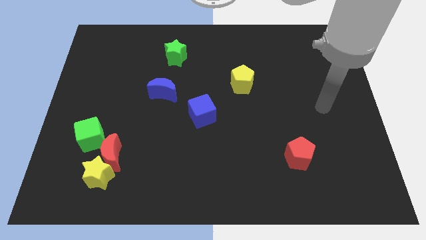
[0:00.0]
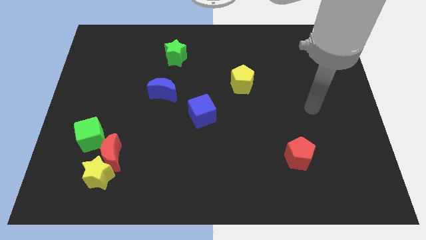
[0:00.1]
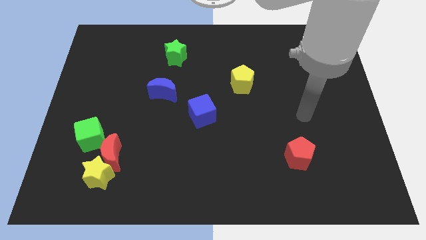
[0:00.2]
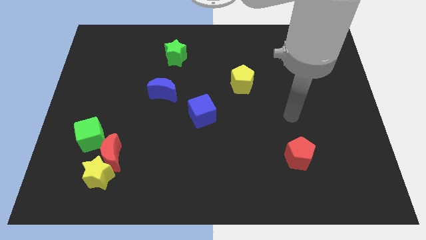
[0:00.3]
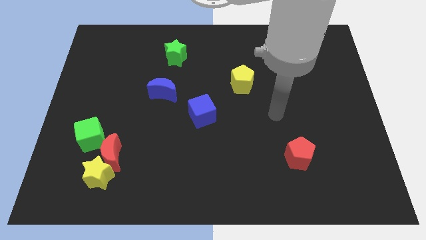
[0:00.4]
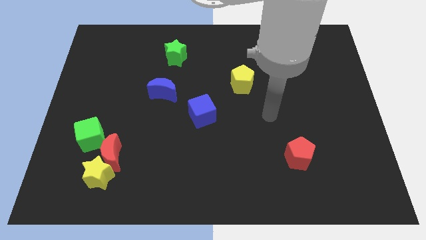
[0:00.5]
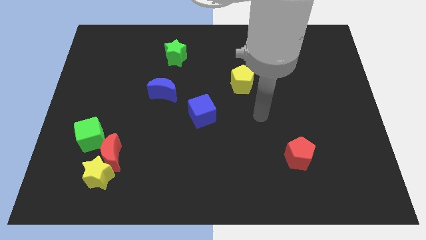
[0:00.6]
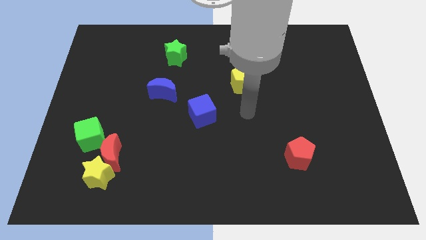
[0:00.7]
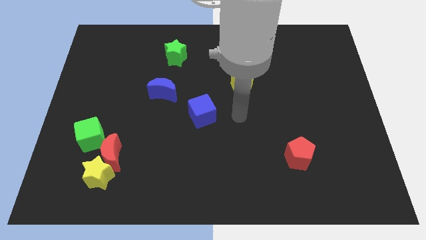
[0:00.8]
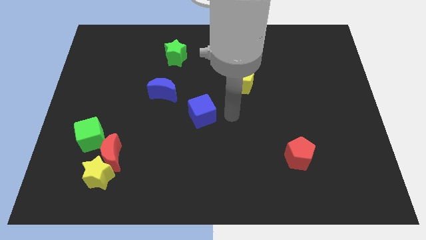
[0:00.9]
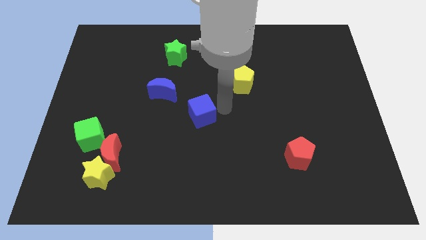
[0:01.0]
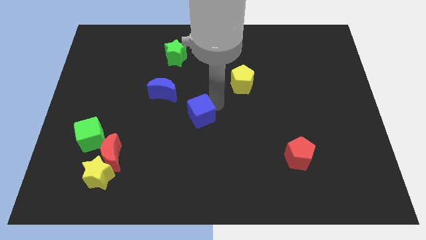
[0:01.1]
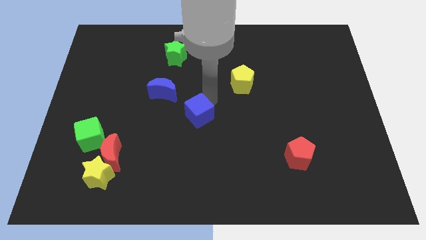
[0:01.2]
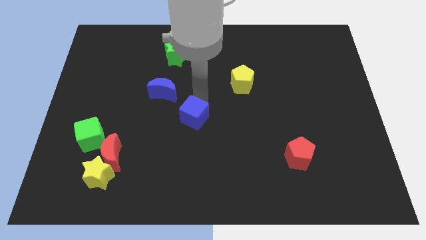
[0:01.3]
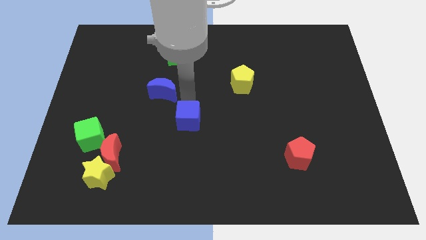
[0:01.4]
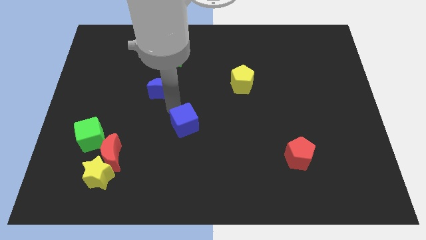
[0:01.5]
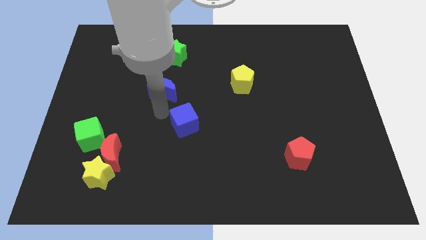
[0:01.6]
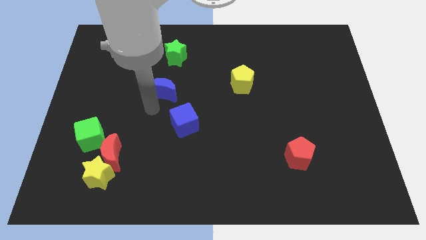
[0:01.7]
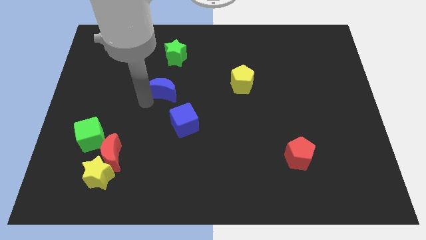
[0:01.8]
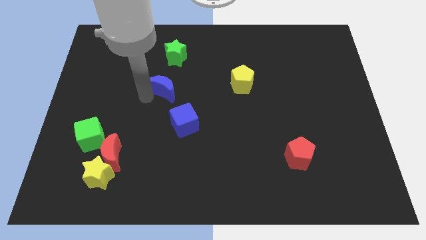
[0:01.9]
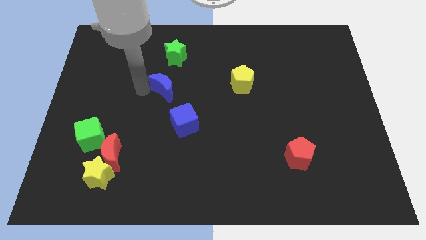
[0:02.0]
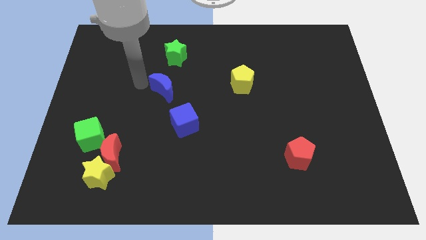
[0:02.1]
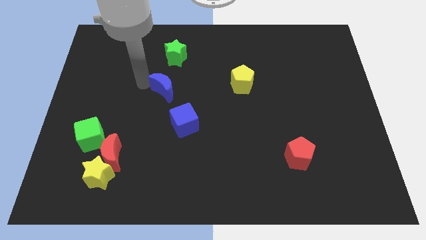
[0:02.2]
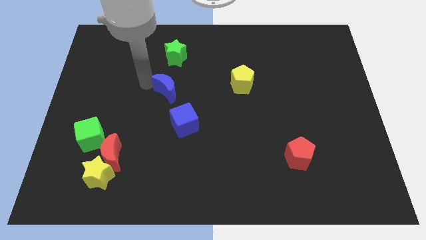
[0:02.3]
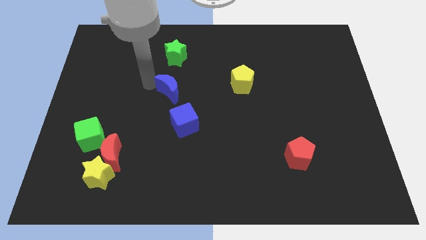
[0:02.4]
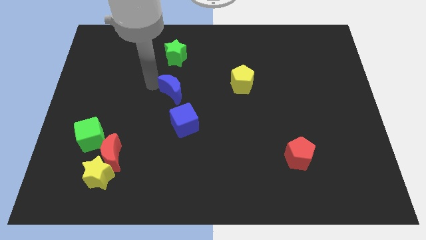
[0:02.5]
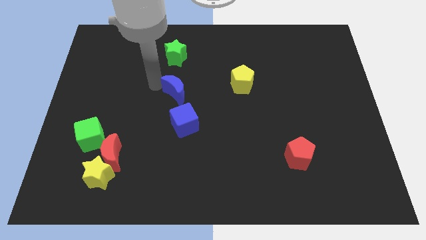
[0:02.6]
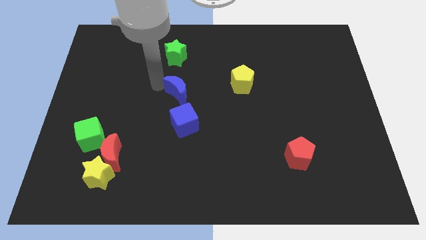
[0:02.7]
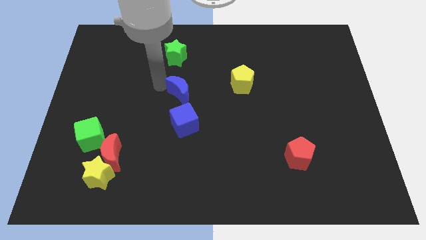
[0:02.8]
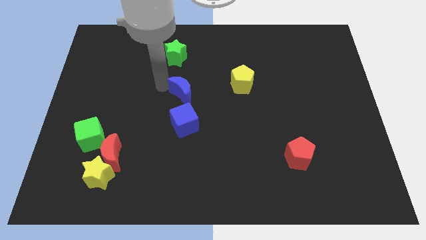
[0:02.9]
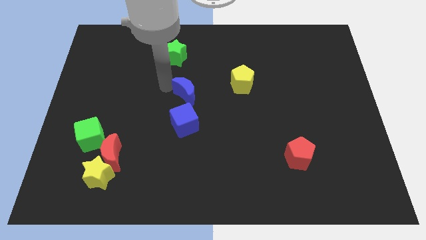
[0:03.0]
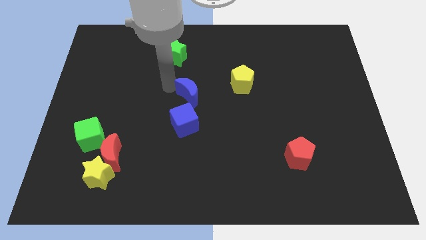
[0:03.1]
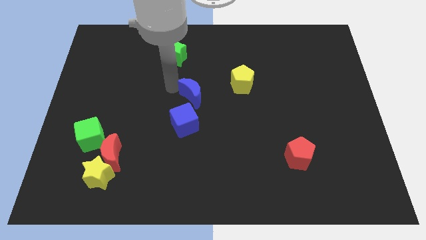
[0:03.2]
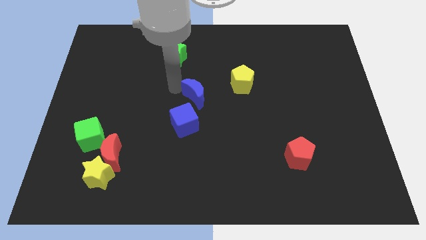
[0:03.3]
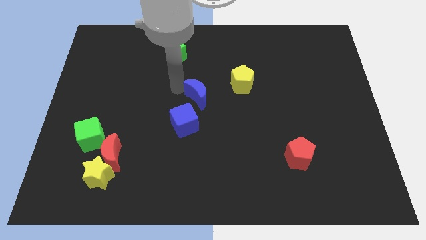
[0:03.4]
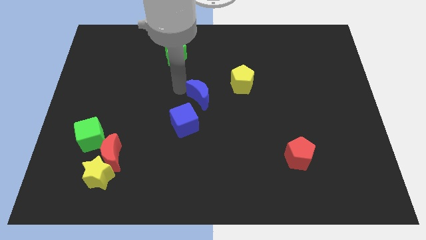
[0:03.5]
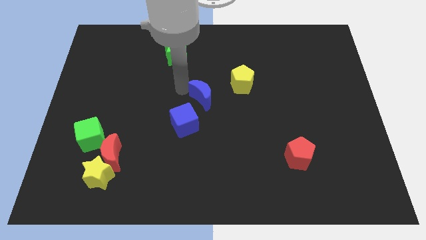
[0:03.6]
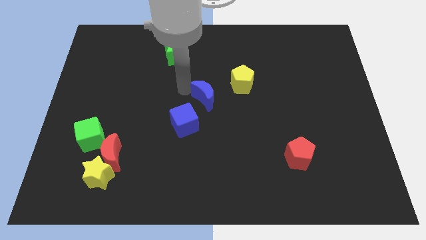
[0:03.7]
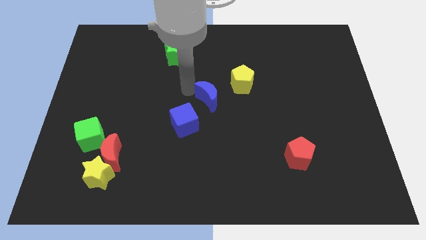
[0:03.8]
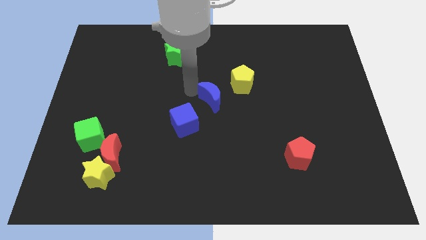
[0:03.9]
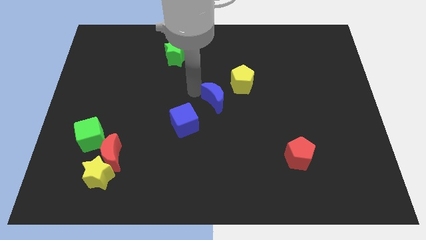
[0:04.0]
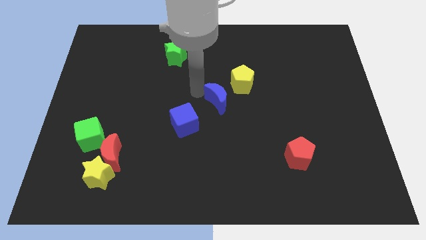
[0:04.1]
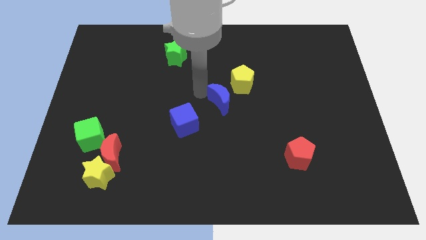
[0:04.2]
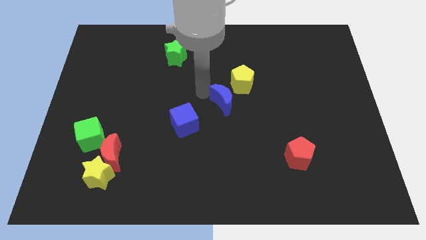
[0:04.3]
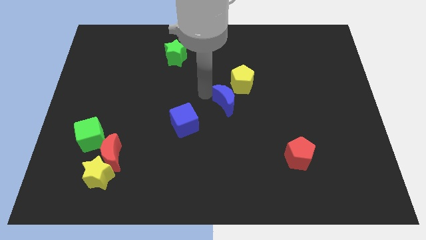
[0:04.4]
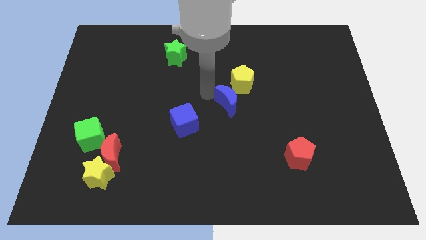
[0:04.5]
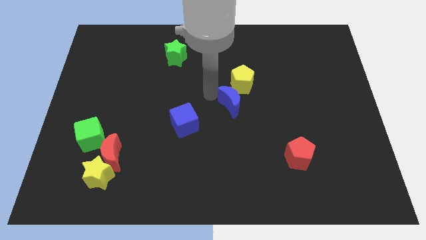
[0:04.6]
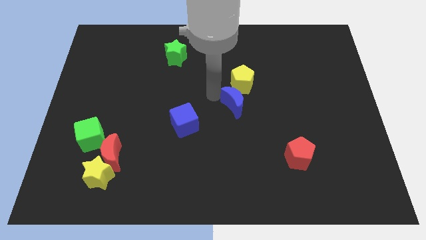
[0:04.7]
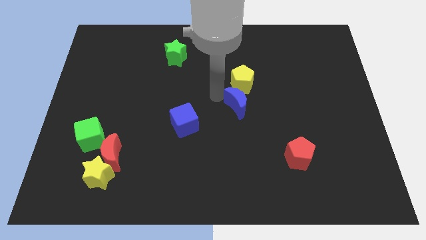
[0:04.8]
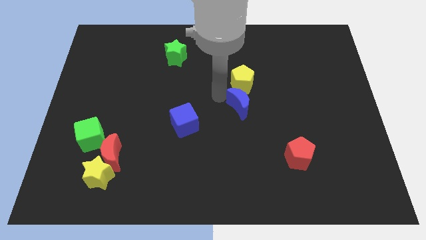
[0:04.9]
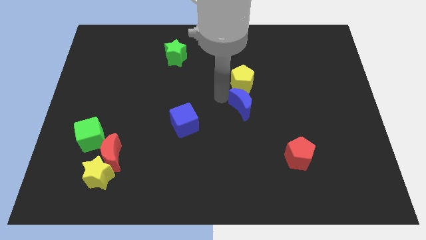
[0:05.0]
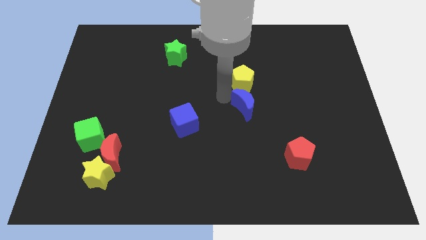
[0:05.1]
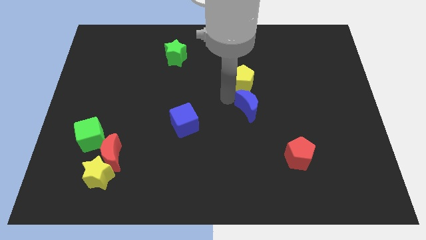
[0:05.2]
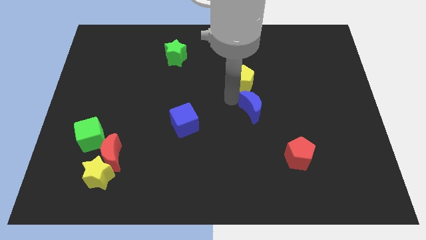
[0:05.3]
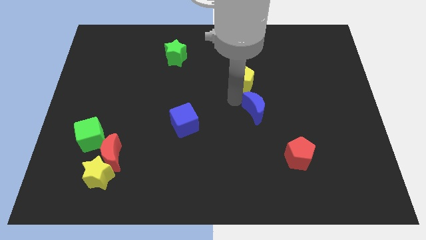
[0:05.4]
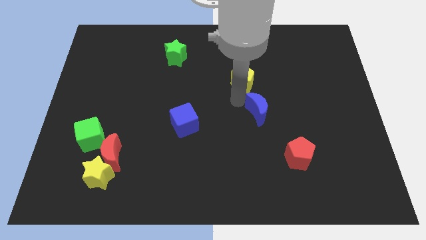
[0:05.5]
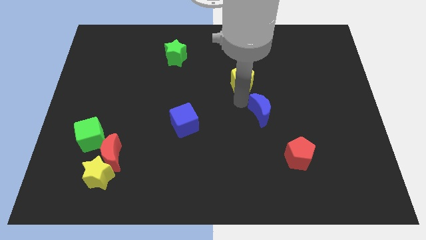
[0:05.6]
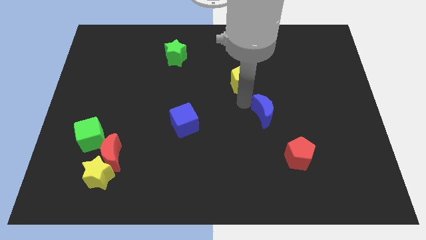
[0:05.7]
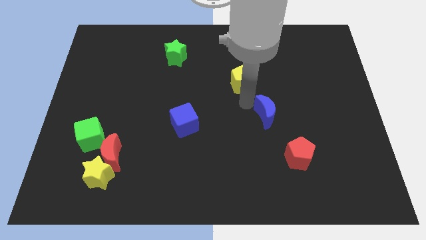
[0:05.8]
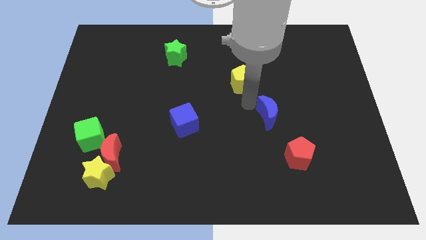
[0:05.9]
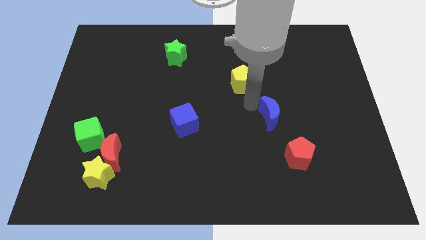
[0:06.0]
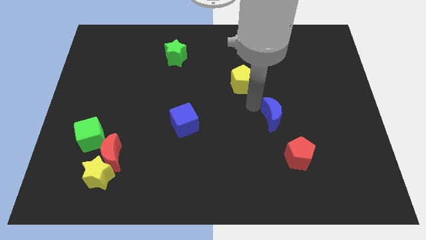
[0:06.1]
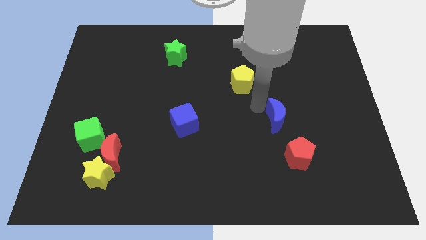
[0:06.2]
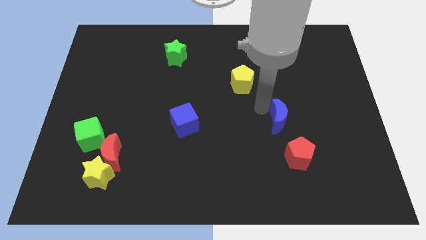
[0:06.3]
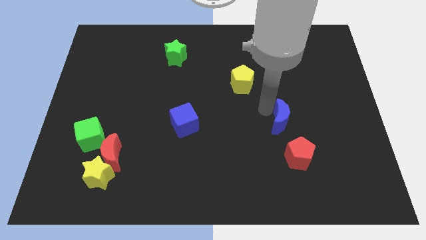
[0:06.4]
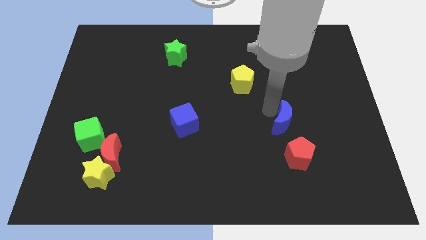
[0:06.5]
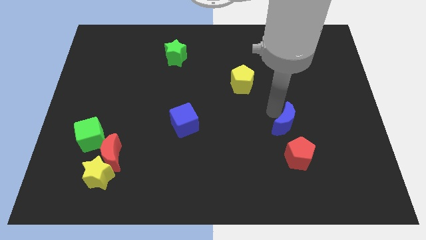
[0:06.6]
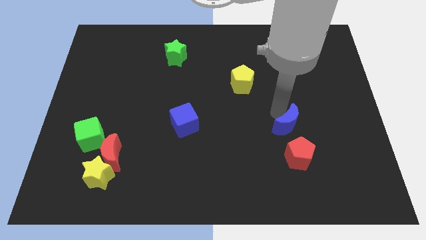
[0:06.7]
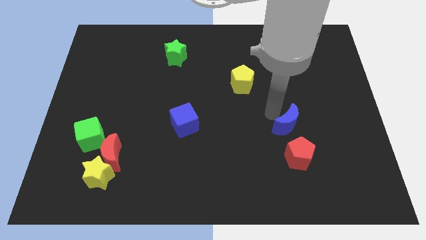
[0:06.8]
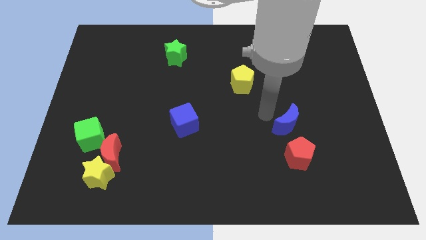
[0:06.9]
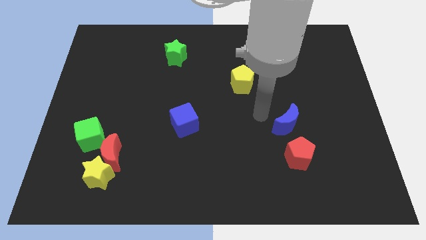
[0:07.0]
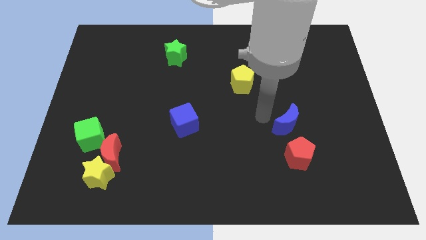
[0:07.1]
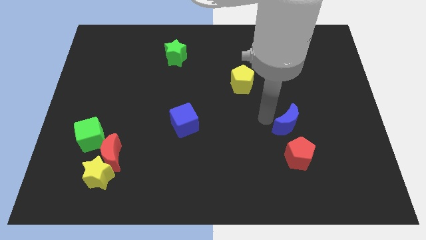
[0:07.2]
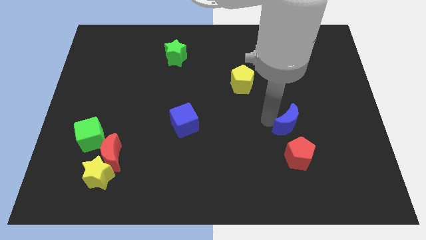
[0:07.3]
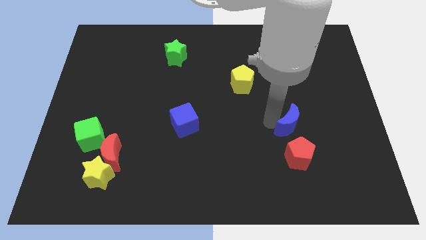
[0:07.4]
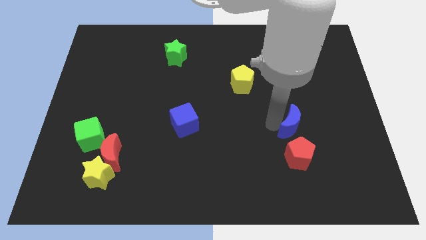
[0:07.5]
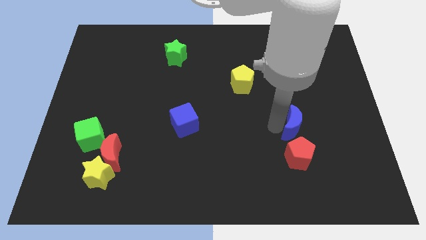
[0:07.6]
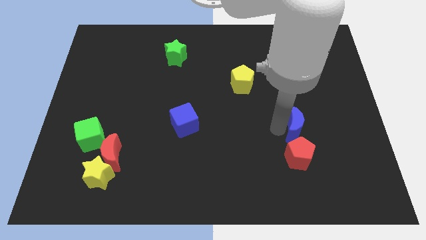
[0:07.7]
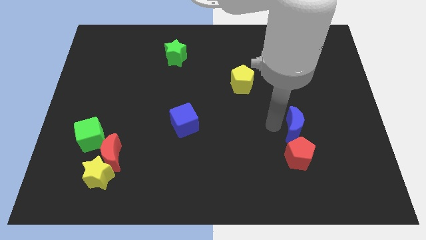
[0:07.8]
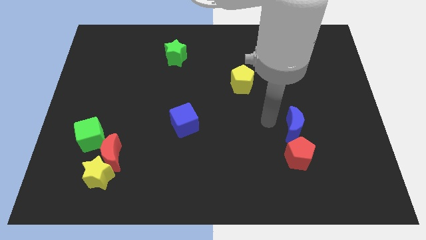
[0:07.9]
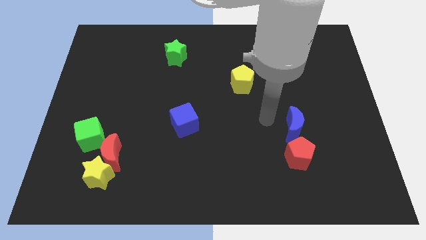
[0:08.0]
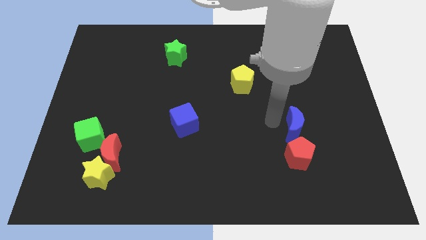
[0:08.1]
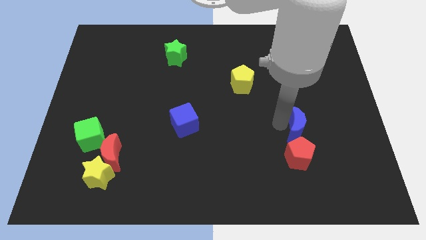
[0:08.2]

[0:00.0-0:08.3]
slide the blue moon to the top right side of the red pentagon
